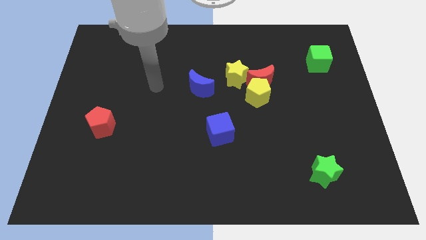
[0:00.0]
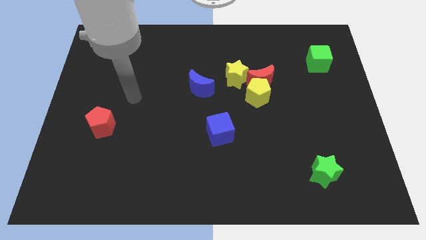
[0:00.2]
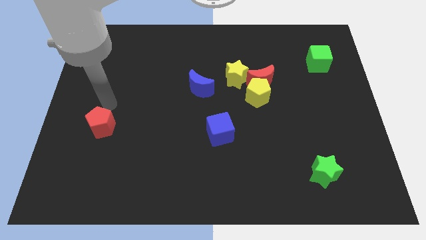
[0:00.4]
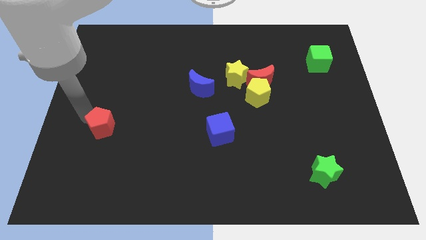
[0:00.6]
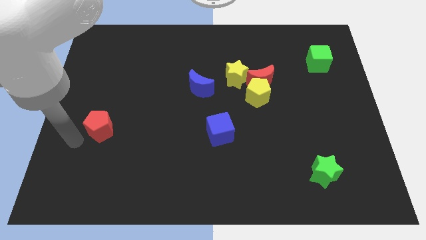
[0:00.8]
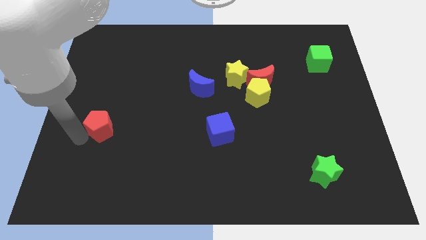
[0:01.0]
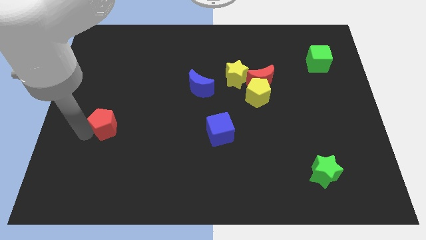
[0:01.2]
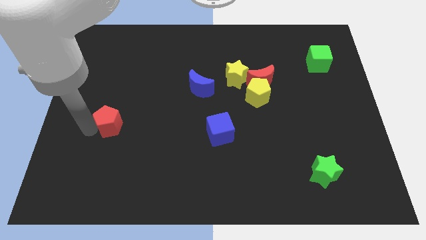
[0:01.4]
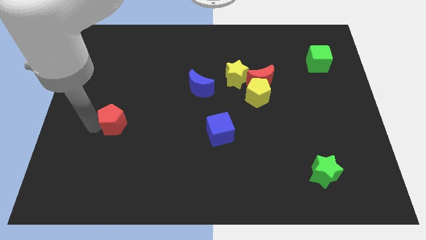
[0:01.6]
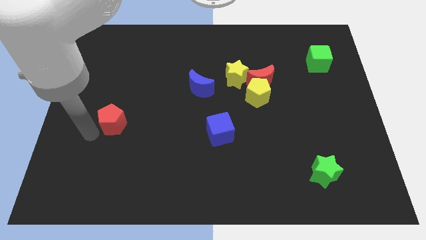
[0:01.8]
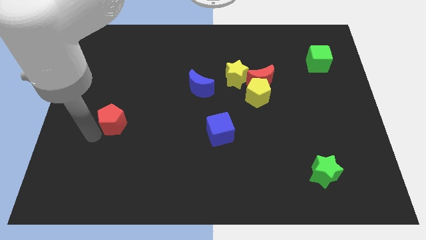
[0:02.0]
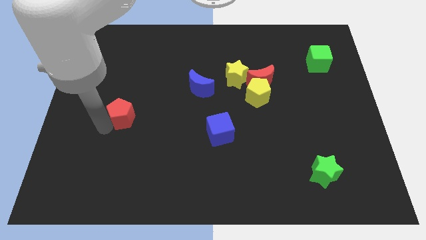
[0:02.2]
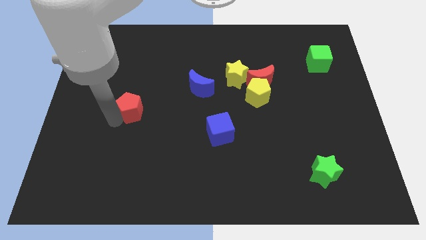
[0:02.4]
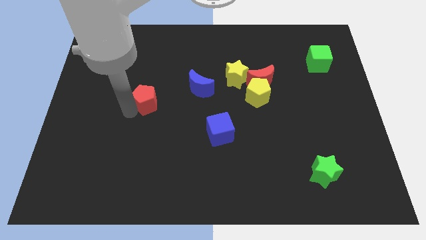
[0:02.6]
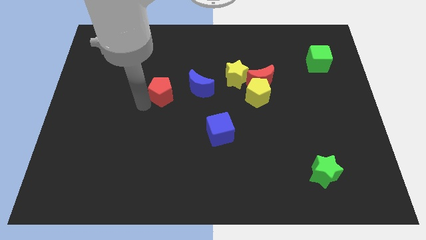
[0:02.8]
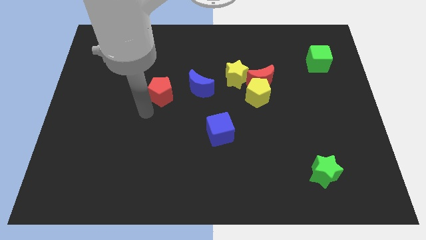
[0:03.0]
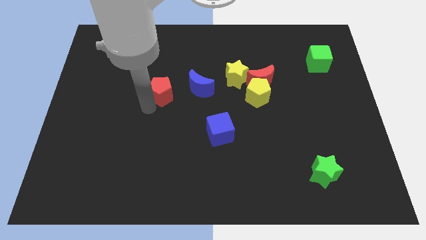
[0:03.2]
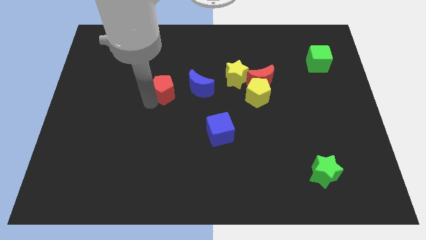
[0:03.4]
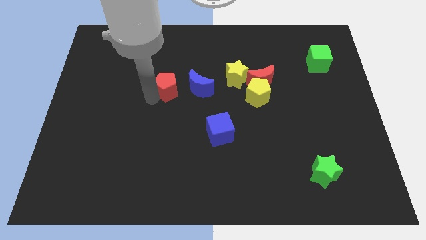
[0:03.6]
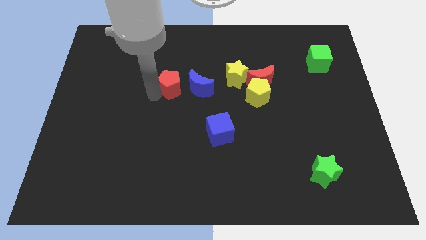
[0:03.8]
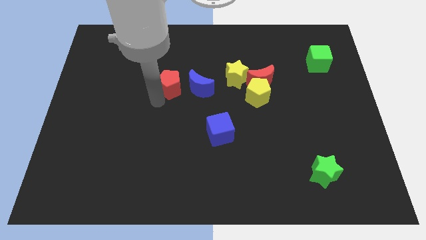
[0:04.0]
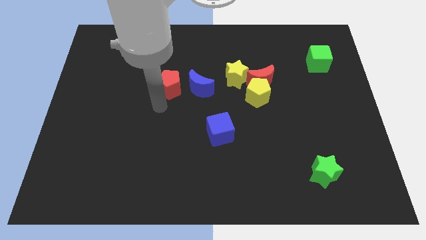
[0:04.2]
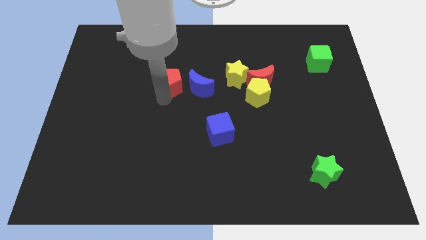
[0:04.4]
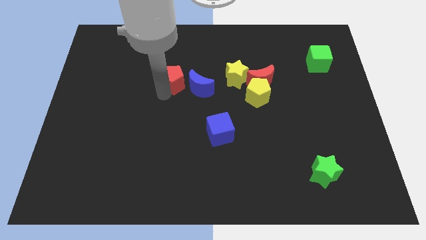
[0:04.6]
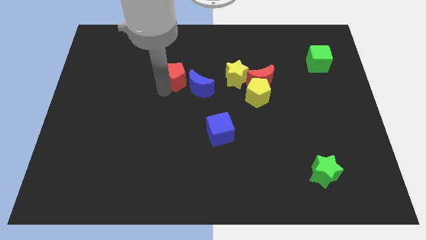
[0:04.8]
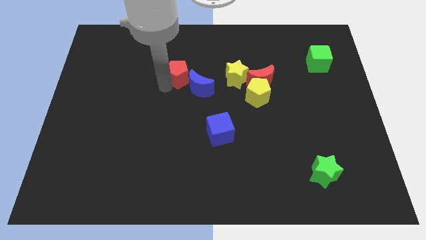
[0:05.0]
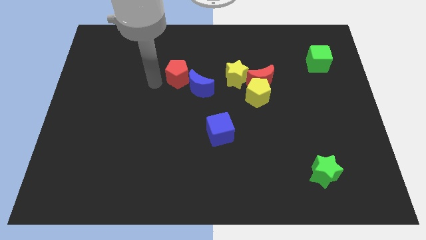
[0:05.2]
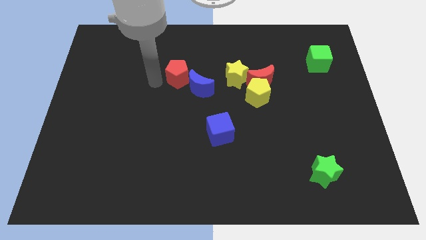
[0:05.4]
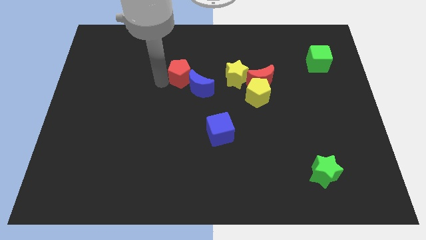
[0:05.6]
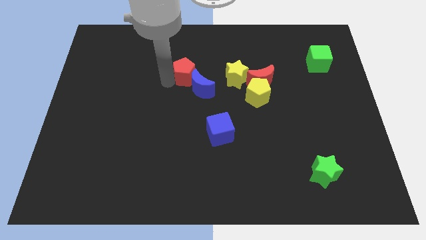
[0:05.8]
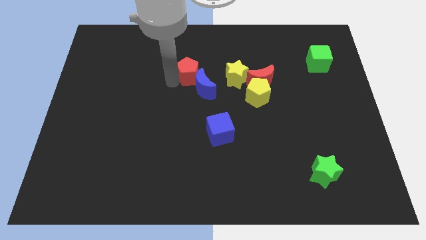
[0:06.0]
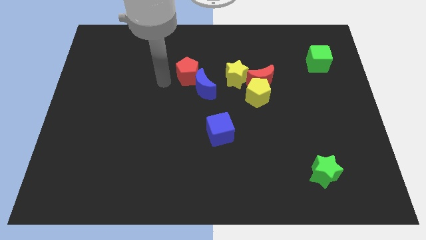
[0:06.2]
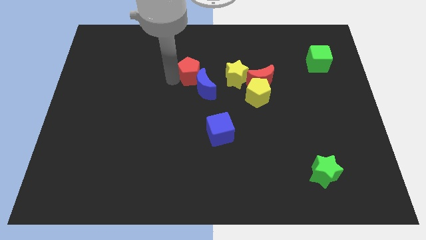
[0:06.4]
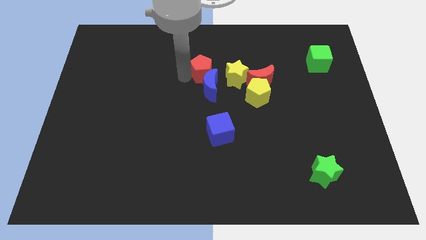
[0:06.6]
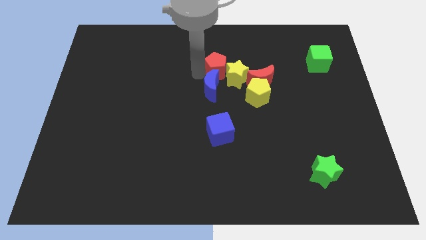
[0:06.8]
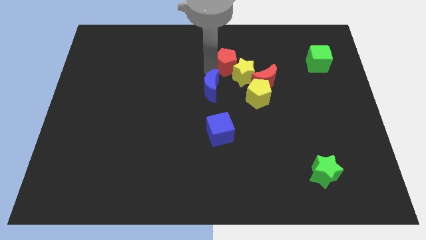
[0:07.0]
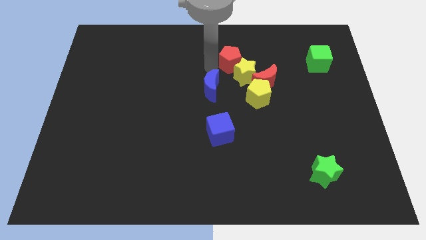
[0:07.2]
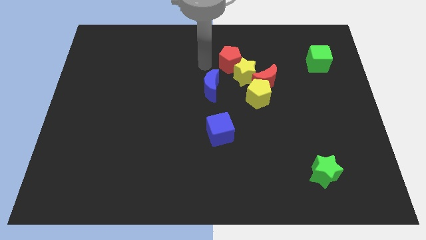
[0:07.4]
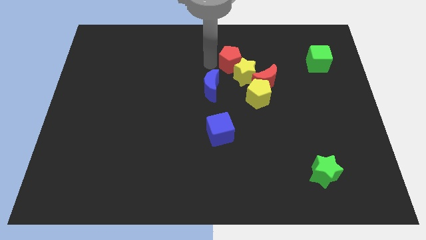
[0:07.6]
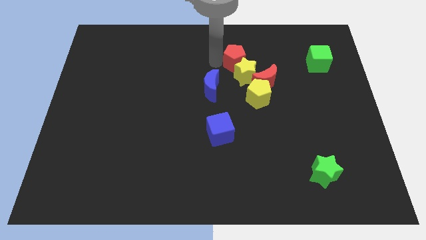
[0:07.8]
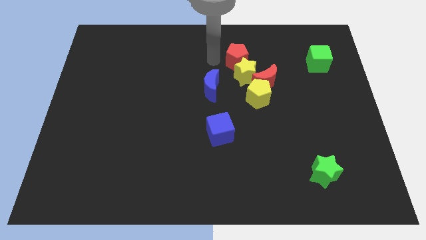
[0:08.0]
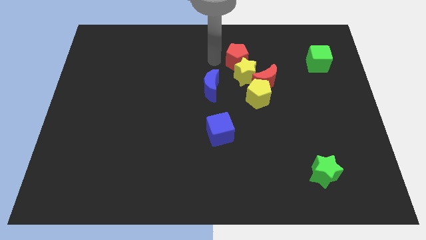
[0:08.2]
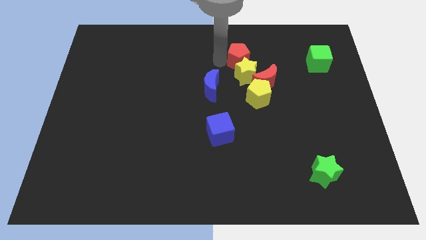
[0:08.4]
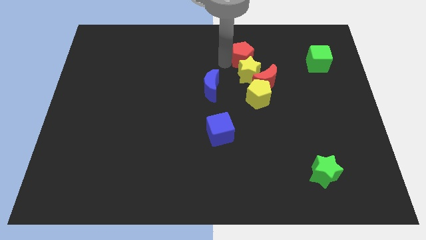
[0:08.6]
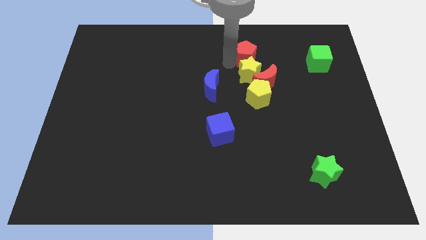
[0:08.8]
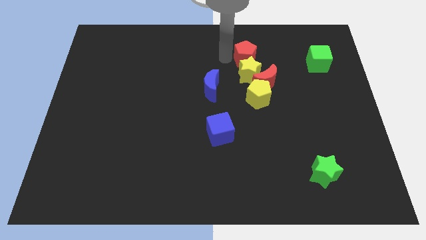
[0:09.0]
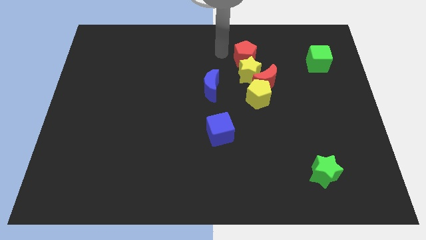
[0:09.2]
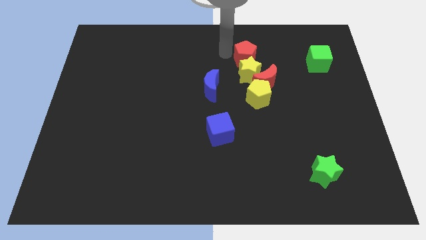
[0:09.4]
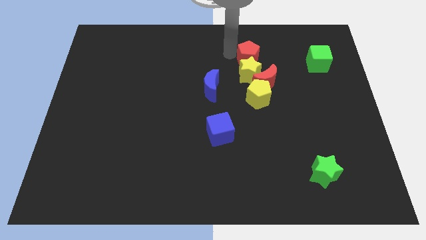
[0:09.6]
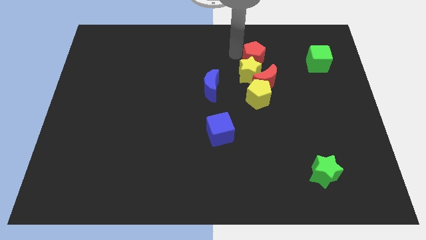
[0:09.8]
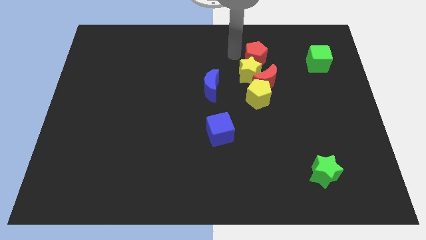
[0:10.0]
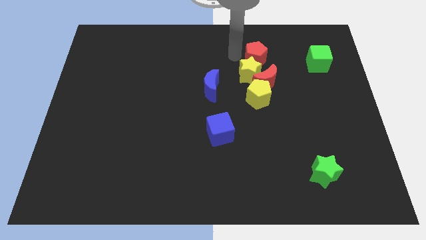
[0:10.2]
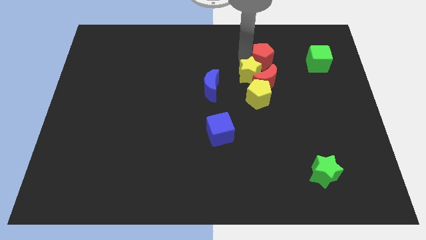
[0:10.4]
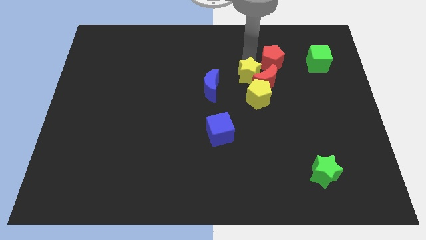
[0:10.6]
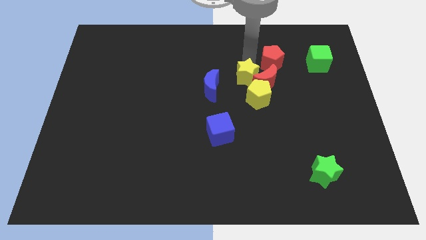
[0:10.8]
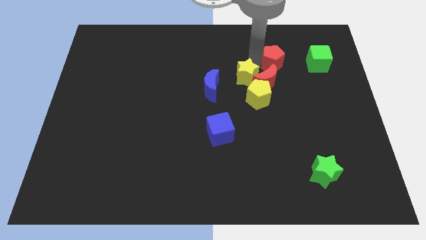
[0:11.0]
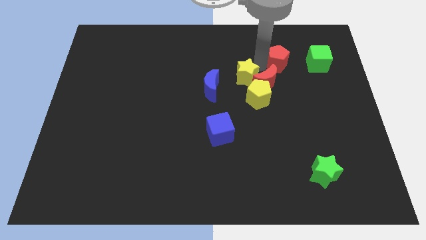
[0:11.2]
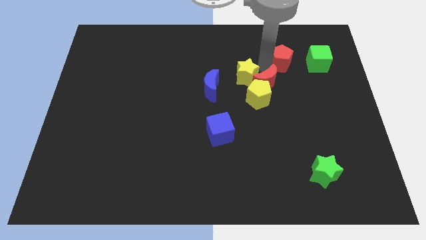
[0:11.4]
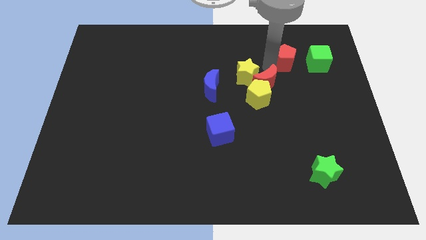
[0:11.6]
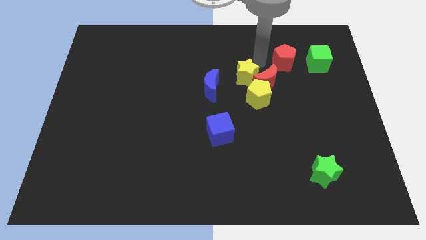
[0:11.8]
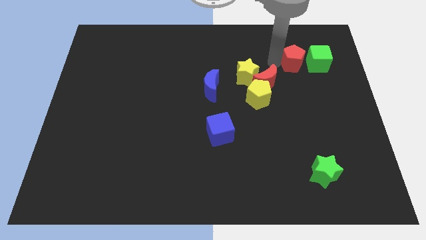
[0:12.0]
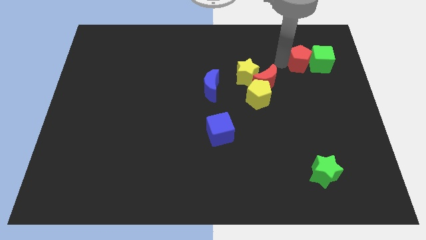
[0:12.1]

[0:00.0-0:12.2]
put the red pentagon next to the green cube

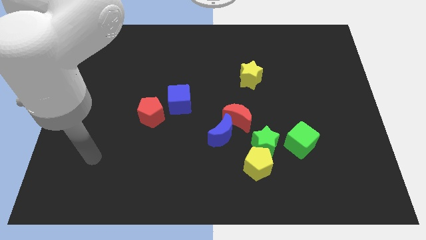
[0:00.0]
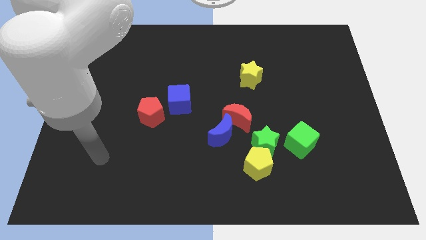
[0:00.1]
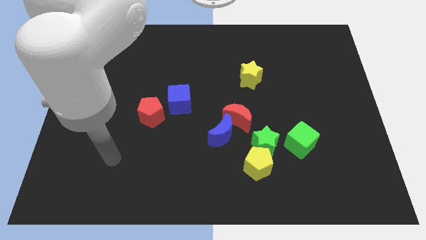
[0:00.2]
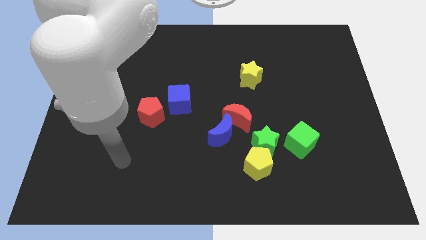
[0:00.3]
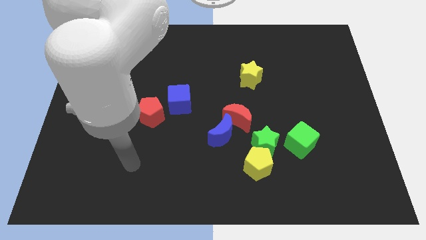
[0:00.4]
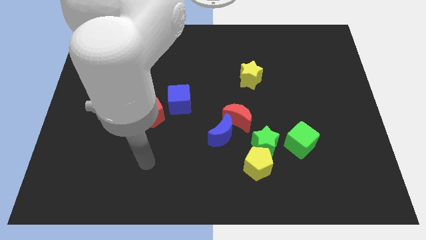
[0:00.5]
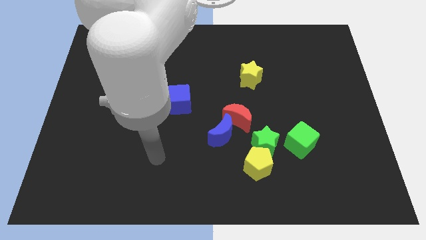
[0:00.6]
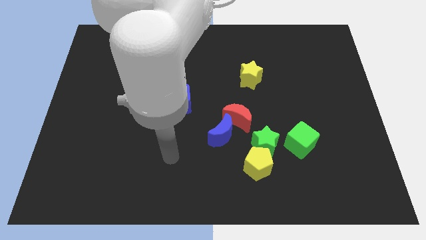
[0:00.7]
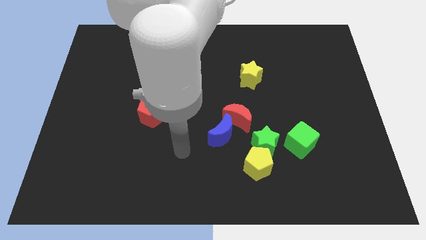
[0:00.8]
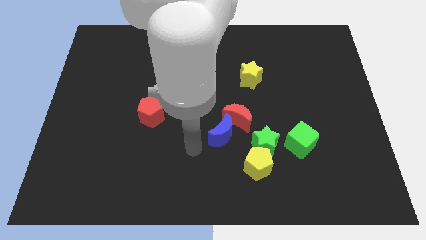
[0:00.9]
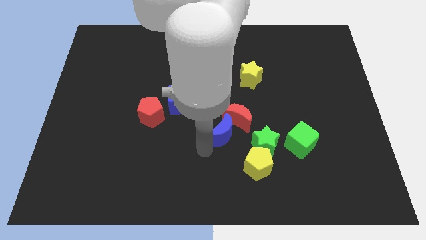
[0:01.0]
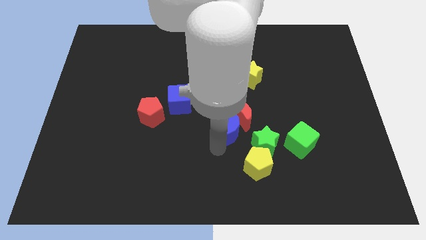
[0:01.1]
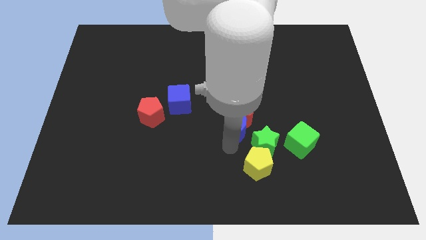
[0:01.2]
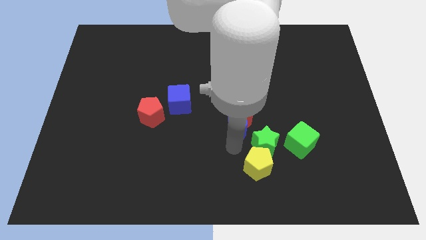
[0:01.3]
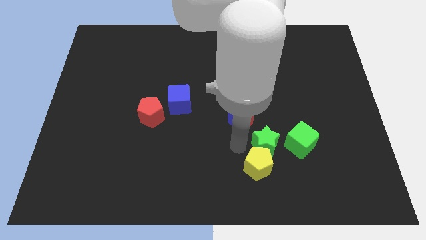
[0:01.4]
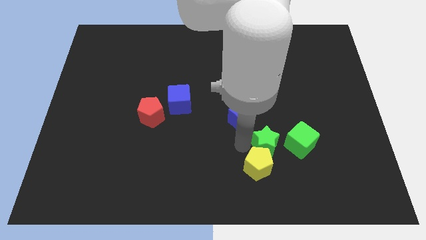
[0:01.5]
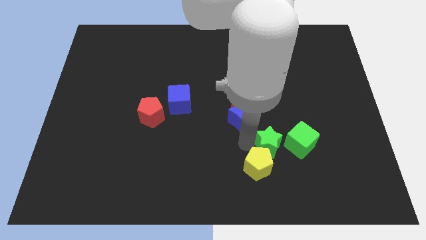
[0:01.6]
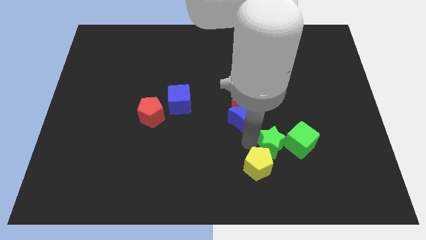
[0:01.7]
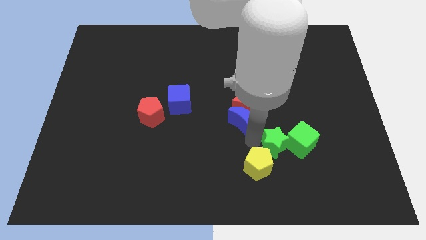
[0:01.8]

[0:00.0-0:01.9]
slide the green star close to the green cube
